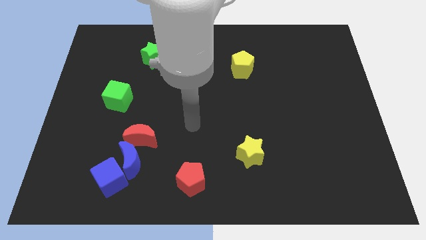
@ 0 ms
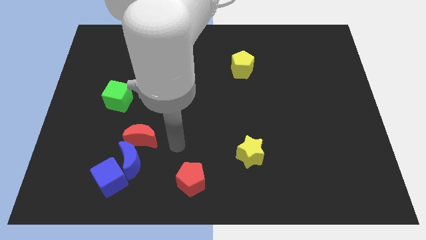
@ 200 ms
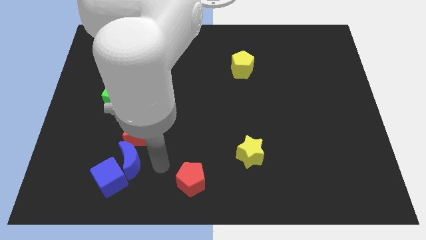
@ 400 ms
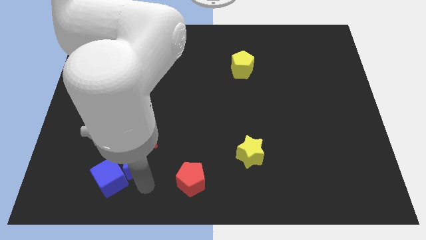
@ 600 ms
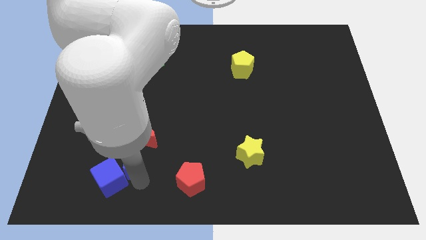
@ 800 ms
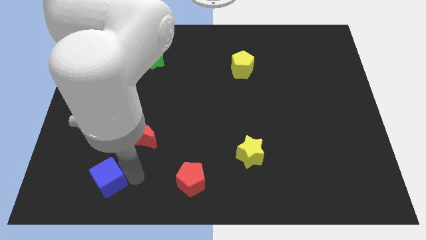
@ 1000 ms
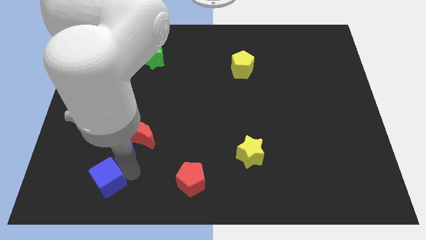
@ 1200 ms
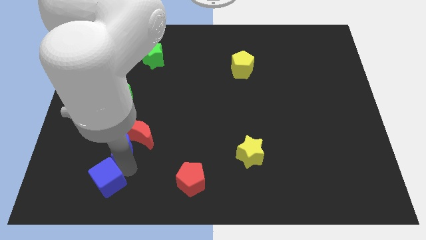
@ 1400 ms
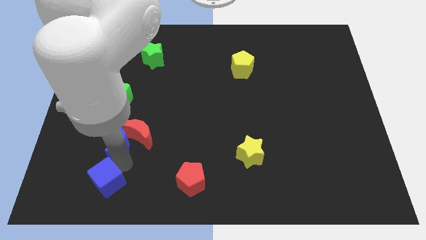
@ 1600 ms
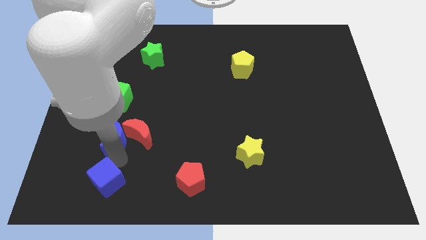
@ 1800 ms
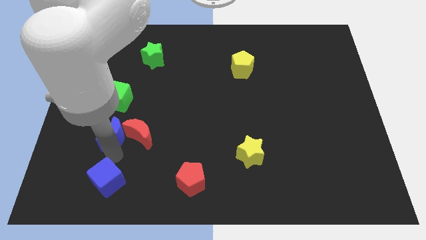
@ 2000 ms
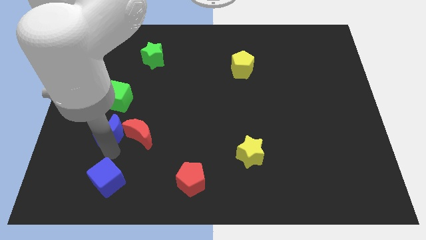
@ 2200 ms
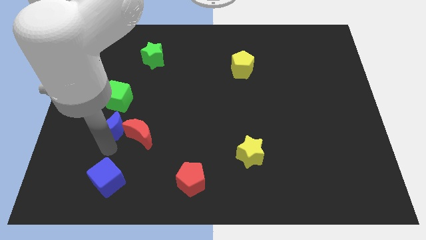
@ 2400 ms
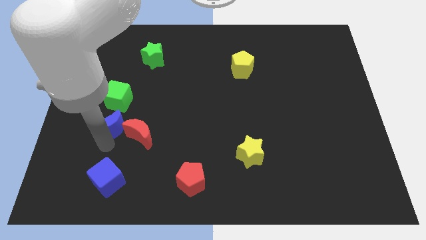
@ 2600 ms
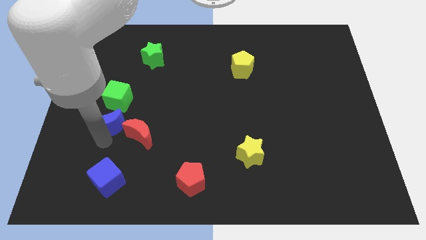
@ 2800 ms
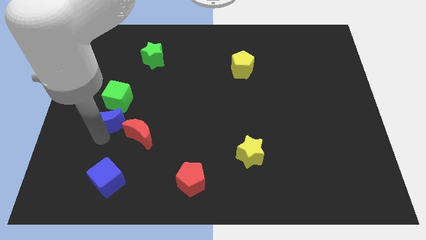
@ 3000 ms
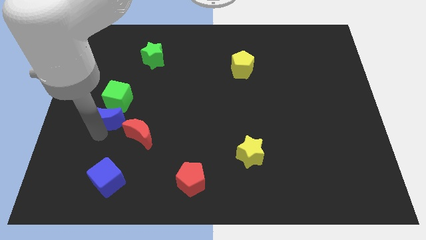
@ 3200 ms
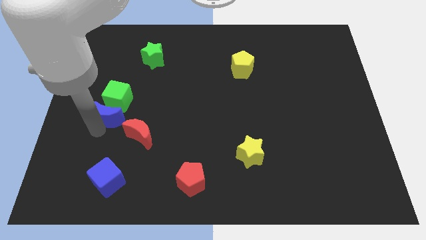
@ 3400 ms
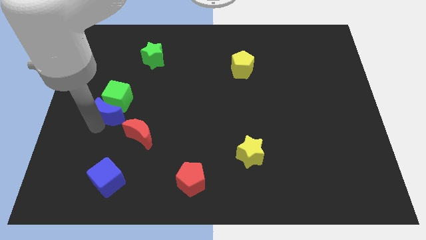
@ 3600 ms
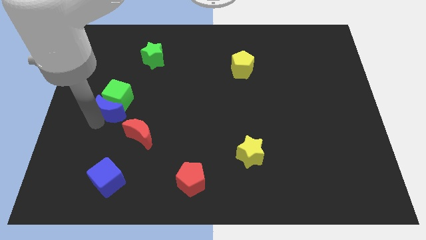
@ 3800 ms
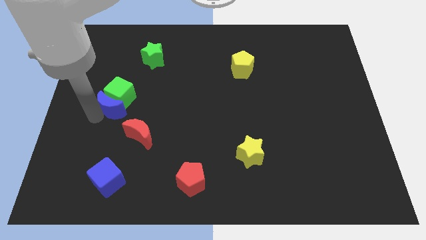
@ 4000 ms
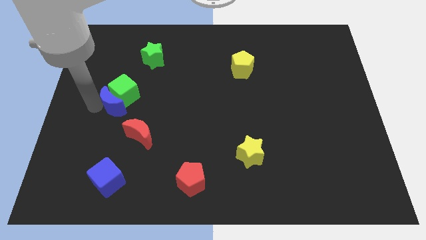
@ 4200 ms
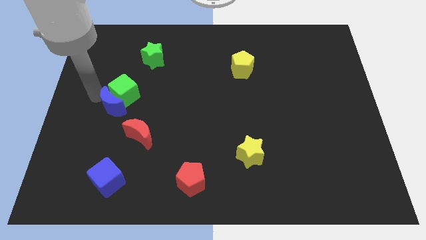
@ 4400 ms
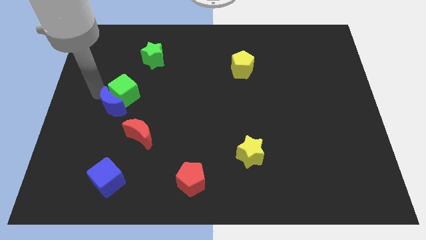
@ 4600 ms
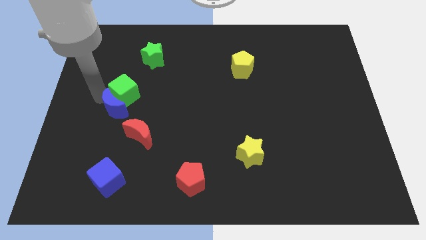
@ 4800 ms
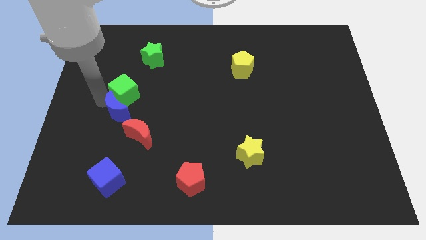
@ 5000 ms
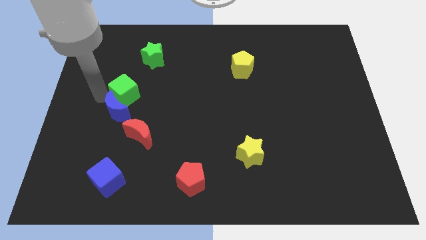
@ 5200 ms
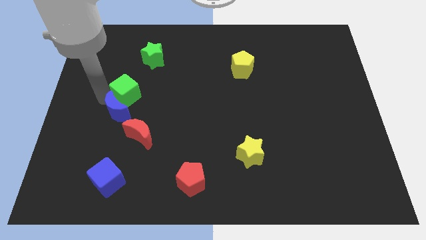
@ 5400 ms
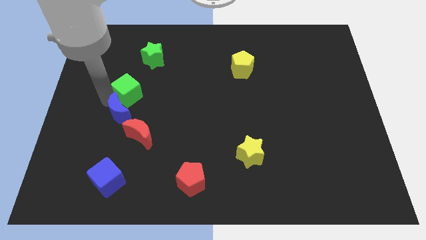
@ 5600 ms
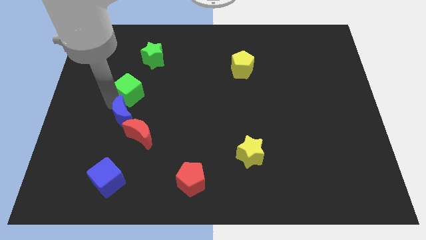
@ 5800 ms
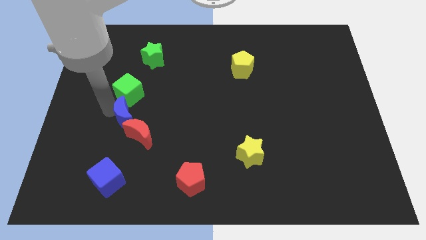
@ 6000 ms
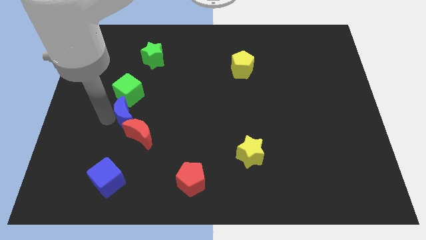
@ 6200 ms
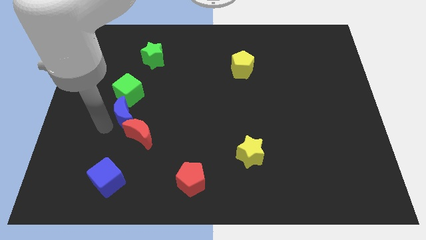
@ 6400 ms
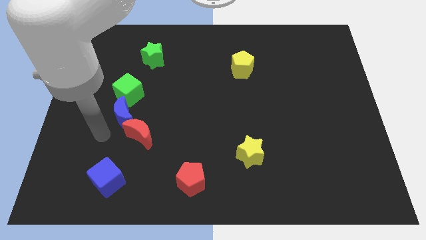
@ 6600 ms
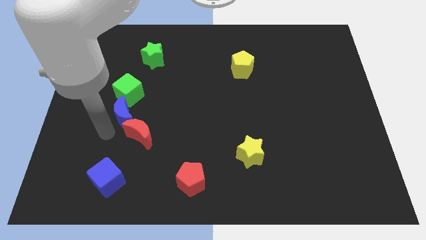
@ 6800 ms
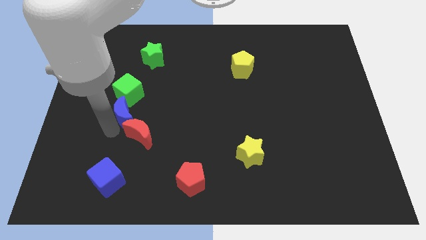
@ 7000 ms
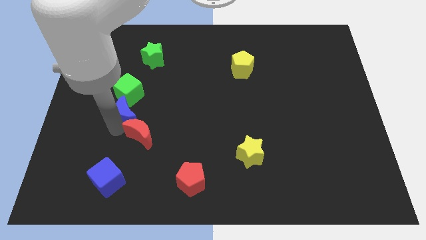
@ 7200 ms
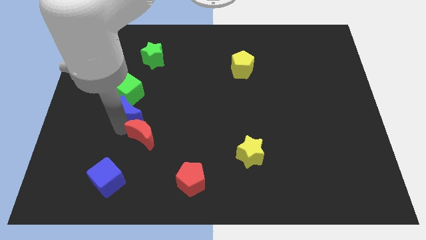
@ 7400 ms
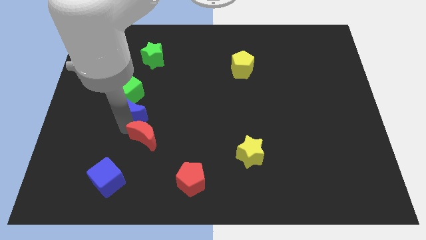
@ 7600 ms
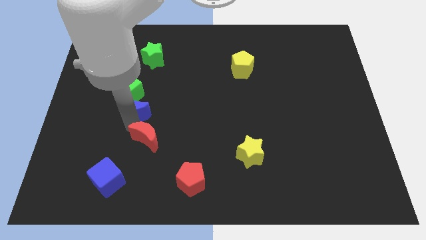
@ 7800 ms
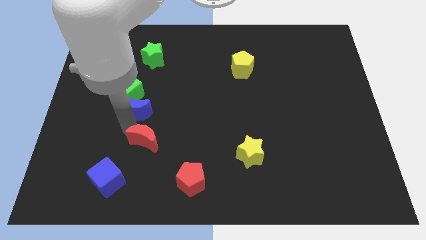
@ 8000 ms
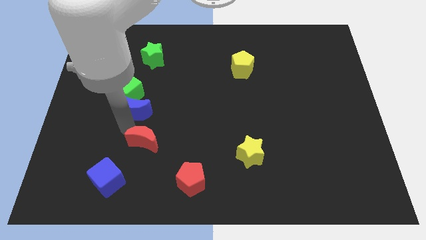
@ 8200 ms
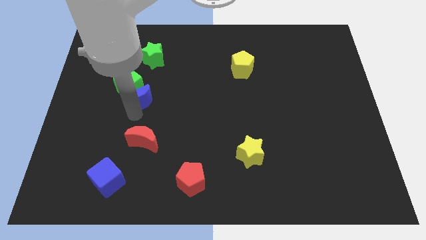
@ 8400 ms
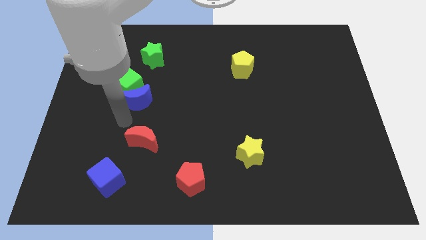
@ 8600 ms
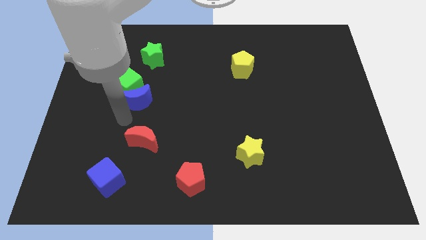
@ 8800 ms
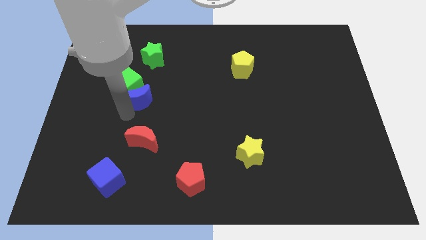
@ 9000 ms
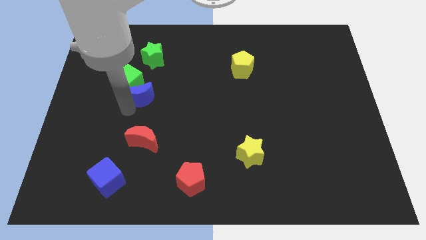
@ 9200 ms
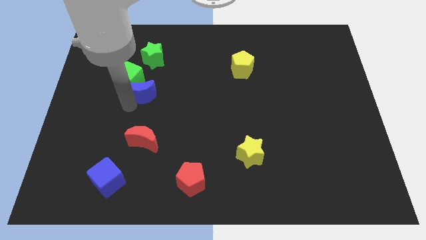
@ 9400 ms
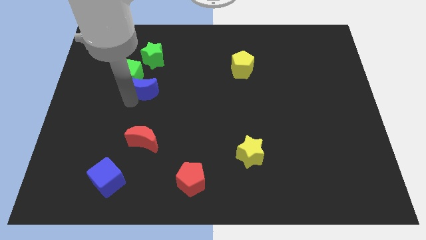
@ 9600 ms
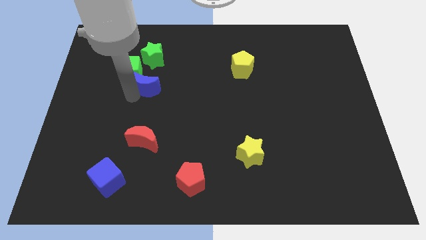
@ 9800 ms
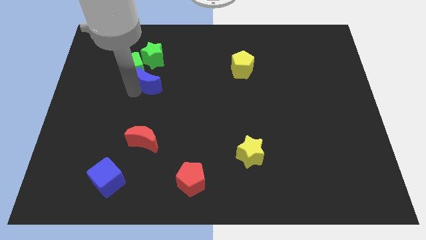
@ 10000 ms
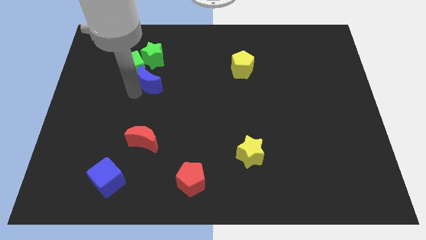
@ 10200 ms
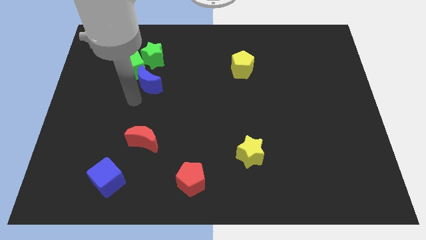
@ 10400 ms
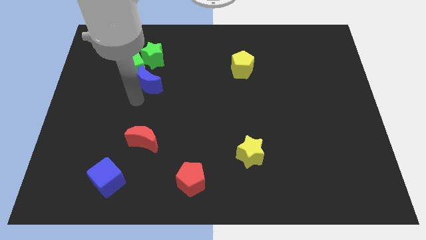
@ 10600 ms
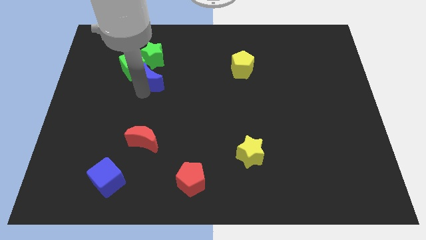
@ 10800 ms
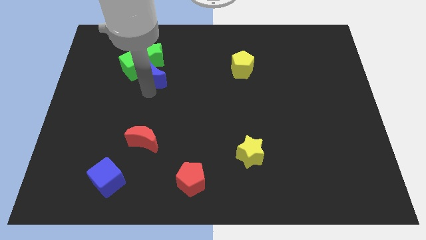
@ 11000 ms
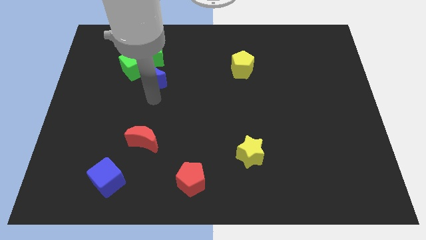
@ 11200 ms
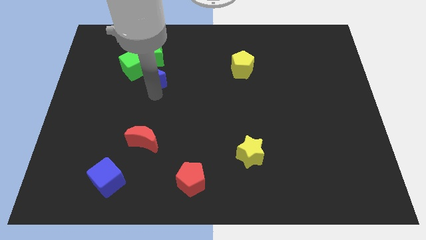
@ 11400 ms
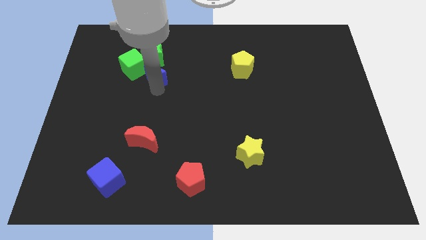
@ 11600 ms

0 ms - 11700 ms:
move the blue moon close to the green star
